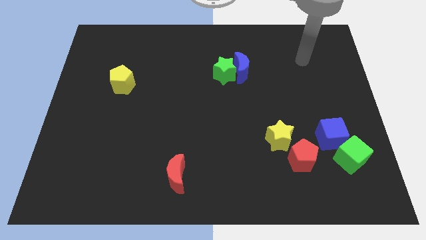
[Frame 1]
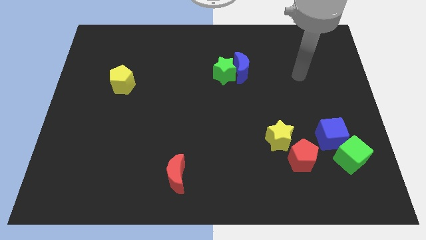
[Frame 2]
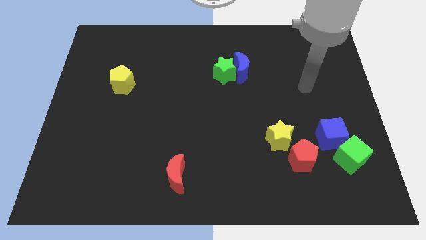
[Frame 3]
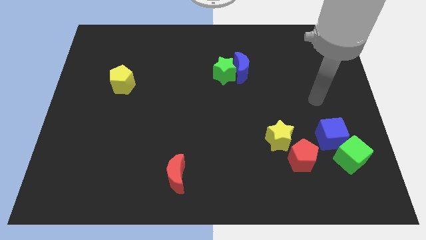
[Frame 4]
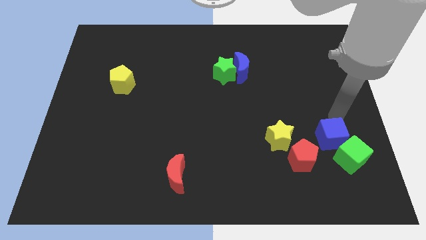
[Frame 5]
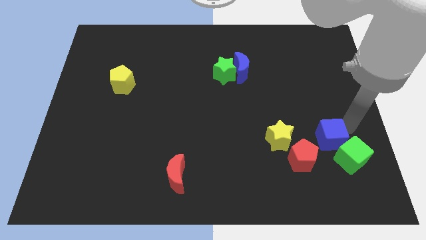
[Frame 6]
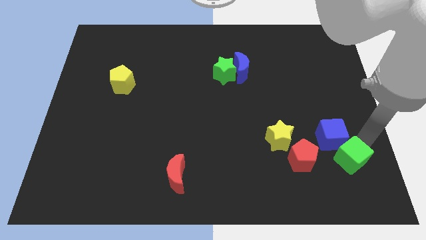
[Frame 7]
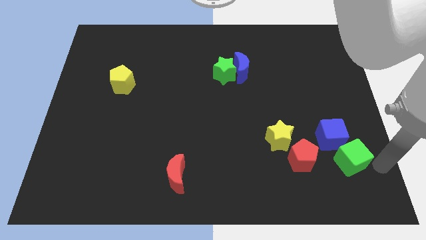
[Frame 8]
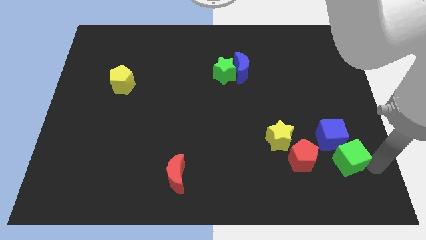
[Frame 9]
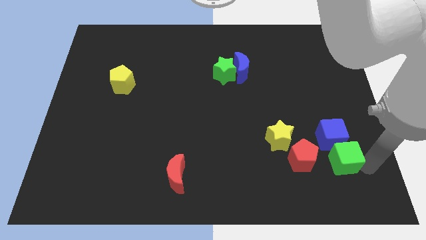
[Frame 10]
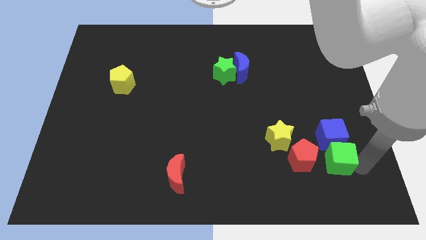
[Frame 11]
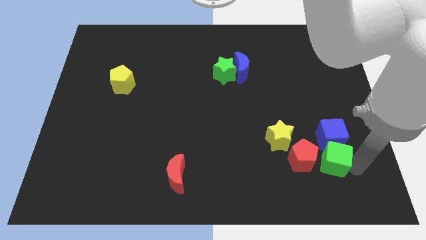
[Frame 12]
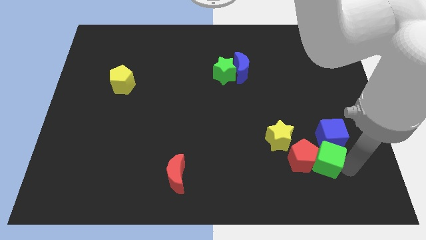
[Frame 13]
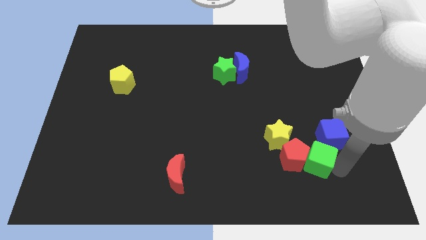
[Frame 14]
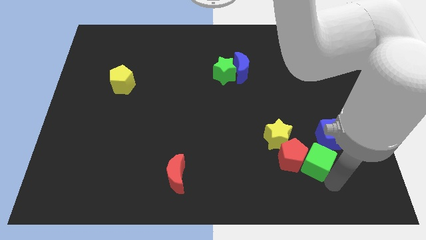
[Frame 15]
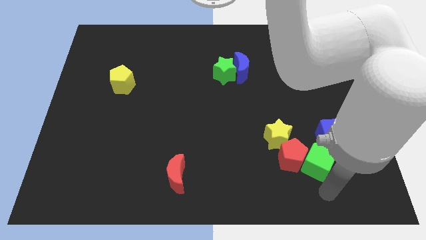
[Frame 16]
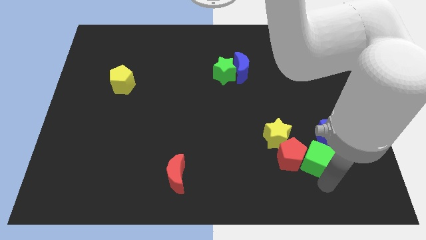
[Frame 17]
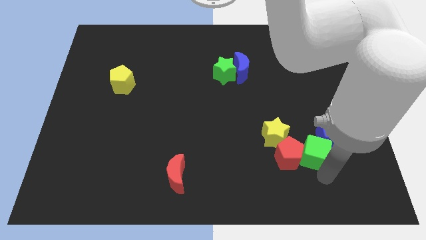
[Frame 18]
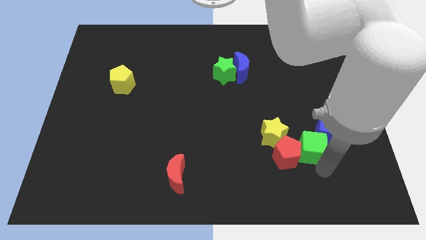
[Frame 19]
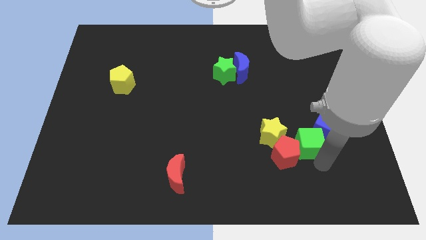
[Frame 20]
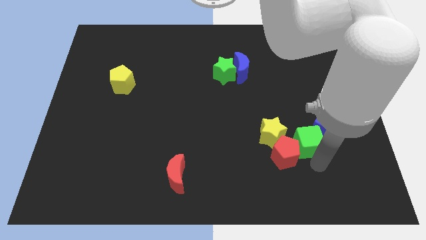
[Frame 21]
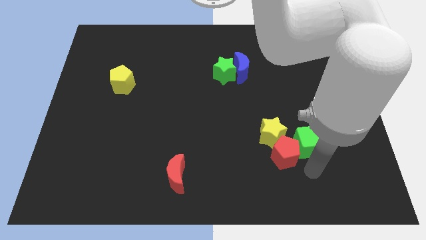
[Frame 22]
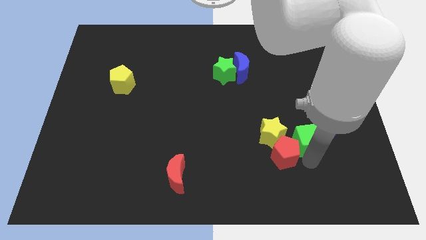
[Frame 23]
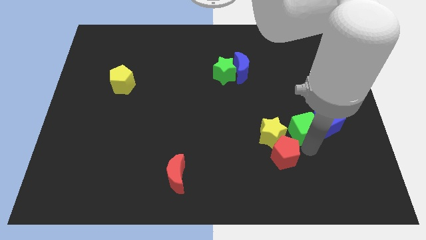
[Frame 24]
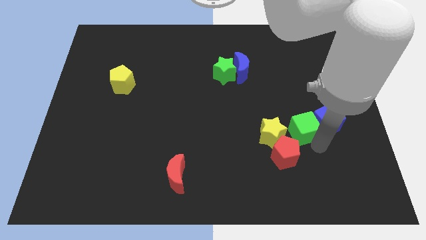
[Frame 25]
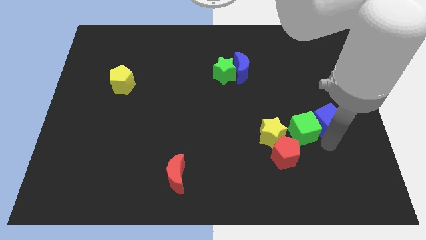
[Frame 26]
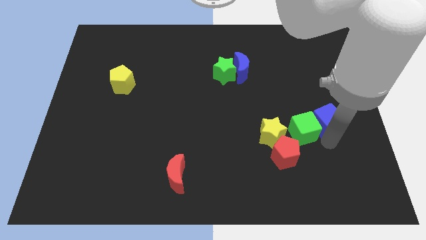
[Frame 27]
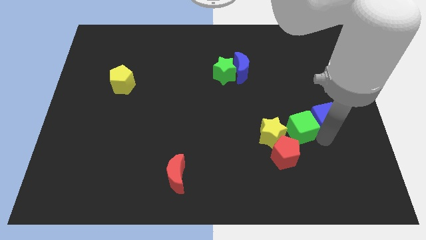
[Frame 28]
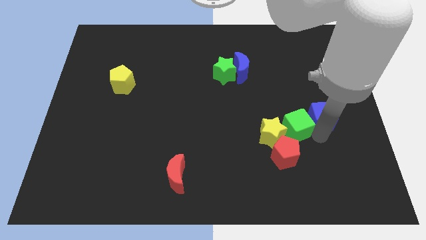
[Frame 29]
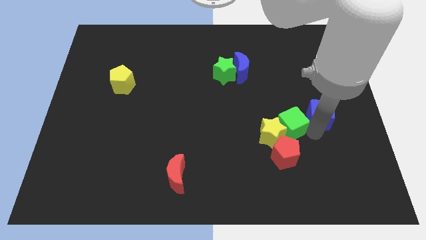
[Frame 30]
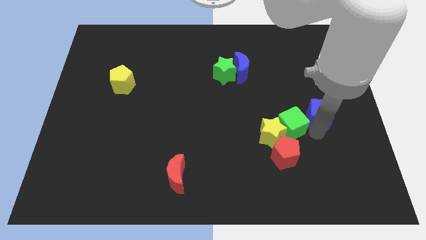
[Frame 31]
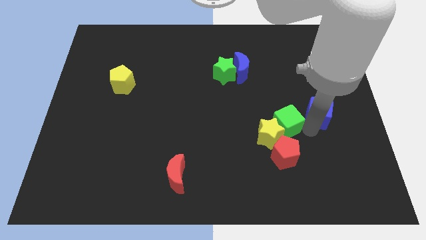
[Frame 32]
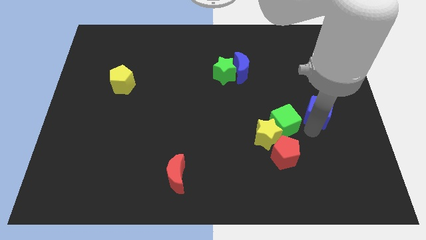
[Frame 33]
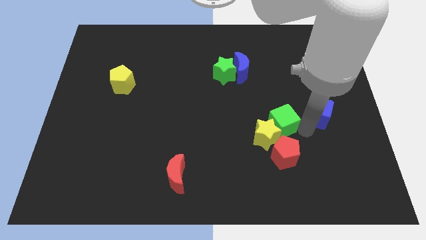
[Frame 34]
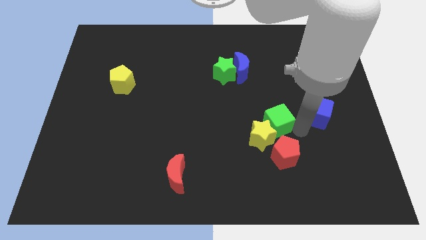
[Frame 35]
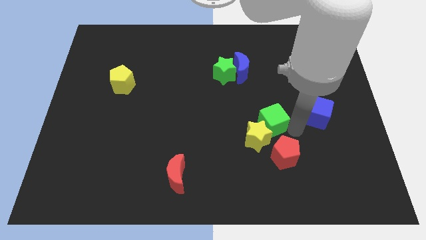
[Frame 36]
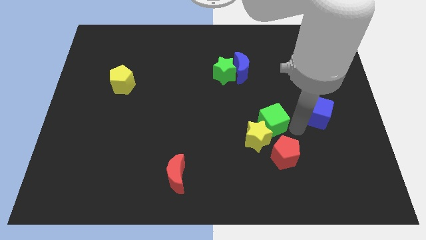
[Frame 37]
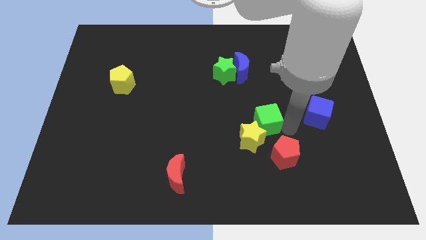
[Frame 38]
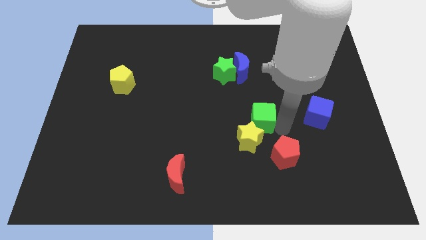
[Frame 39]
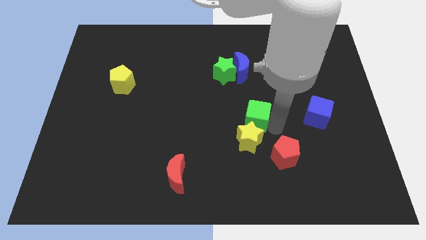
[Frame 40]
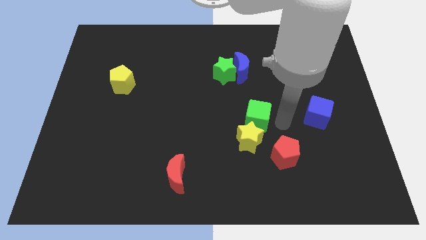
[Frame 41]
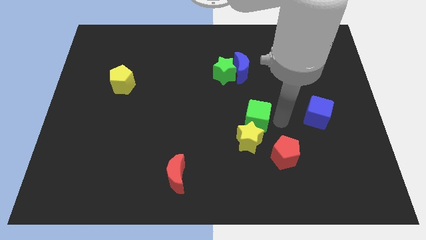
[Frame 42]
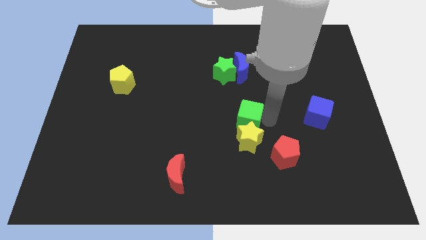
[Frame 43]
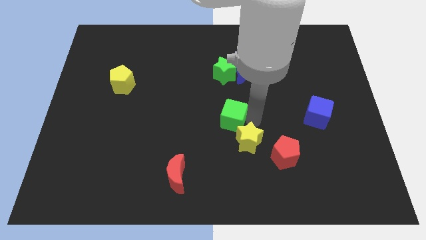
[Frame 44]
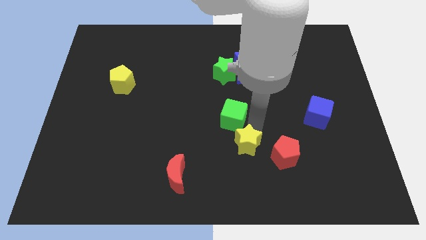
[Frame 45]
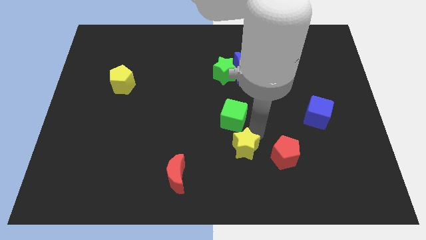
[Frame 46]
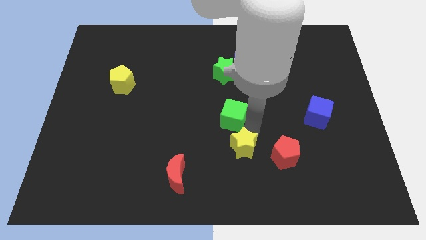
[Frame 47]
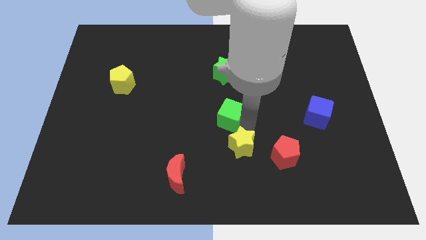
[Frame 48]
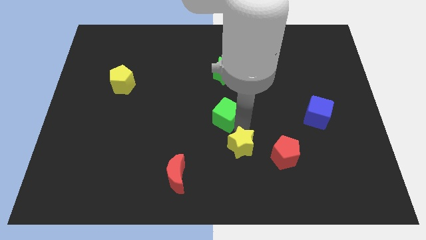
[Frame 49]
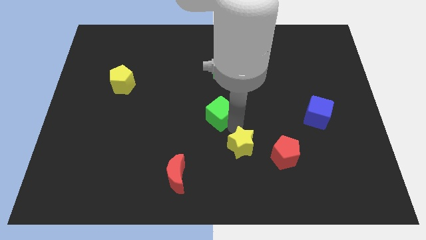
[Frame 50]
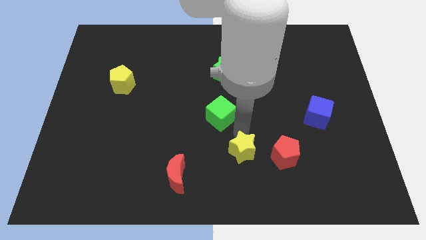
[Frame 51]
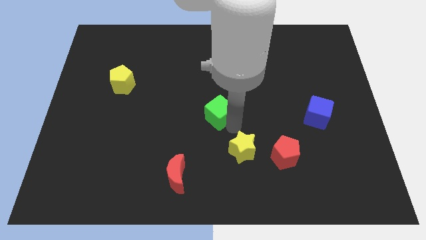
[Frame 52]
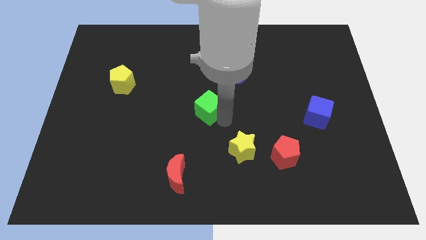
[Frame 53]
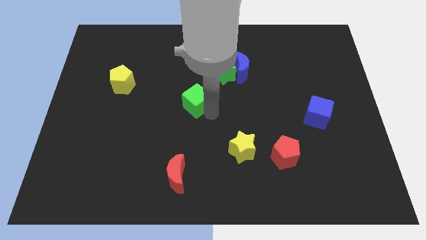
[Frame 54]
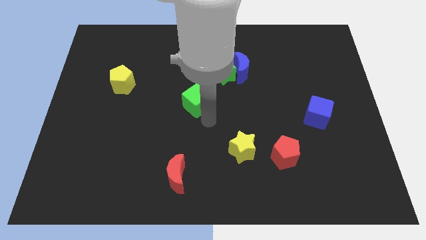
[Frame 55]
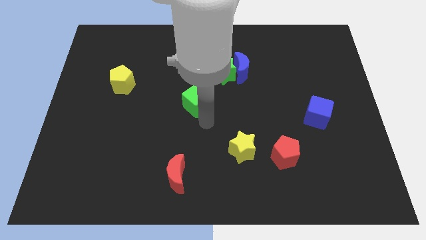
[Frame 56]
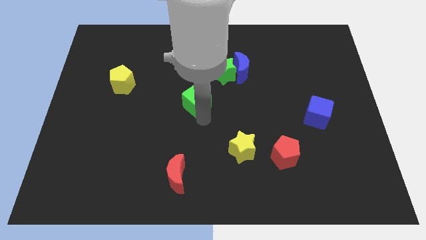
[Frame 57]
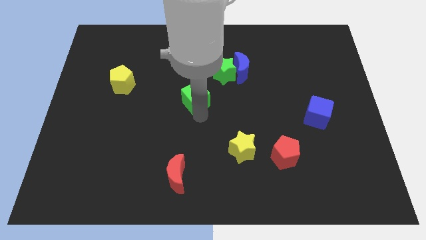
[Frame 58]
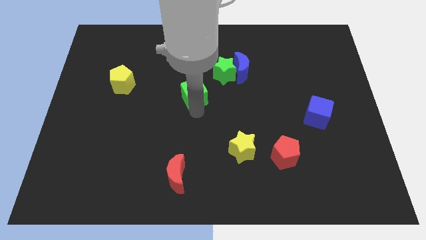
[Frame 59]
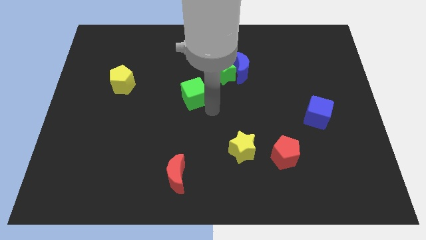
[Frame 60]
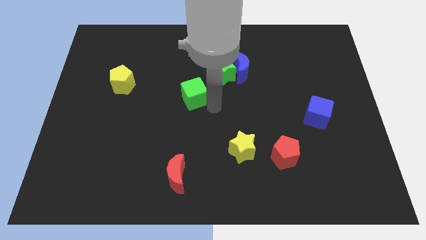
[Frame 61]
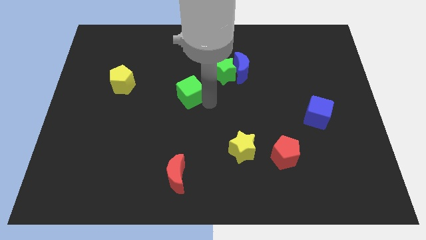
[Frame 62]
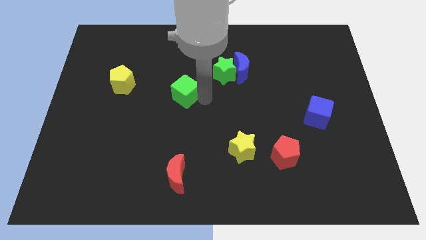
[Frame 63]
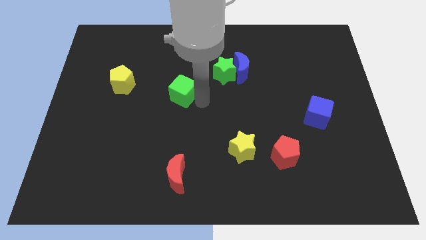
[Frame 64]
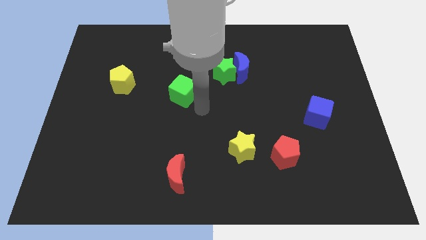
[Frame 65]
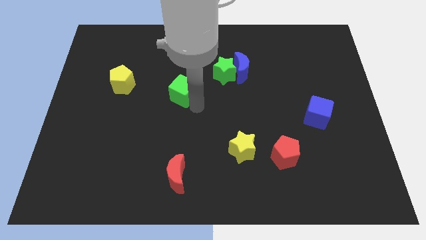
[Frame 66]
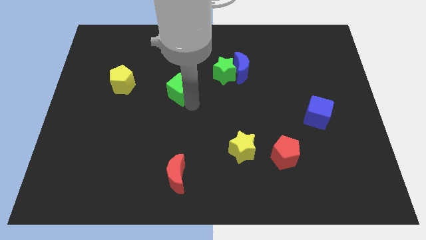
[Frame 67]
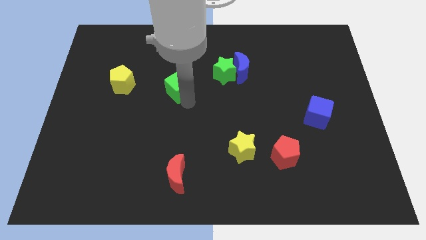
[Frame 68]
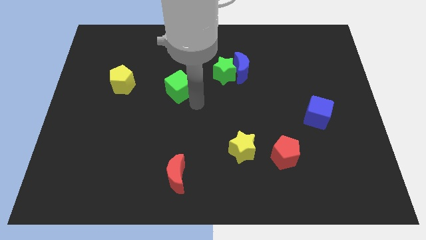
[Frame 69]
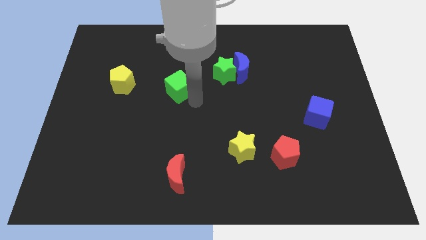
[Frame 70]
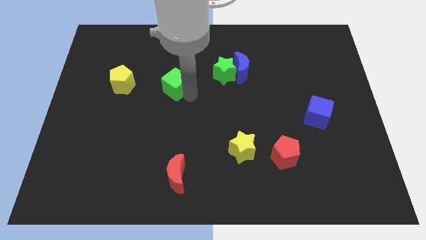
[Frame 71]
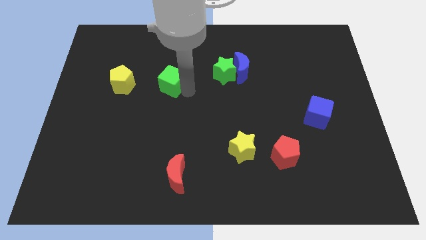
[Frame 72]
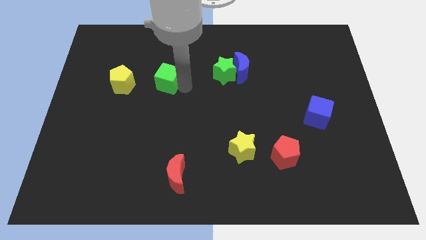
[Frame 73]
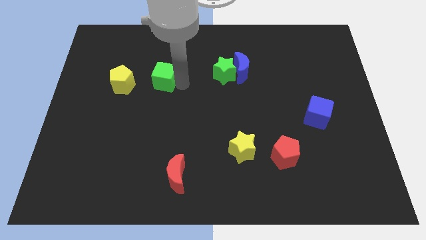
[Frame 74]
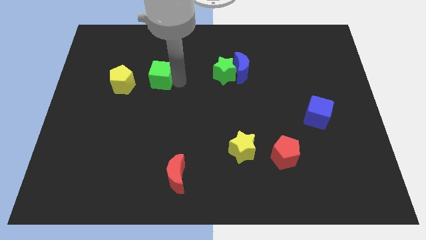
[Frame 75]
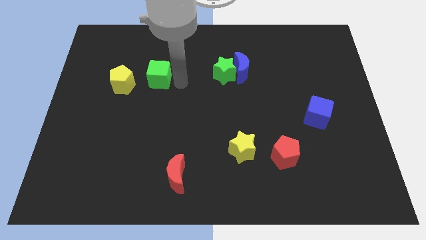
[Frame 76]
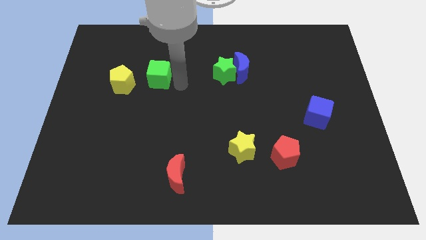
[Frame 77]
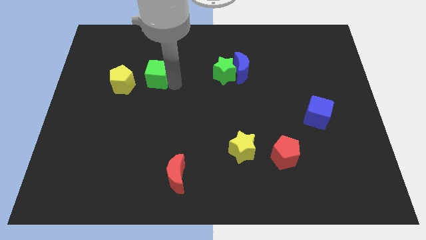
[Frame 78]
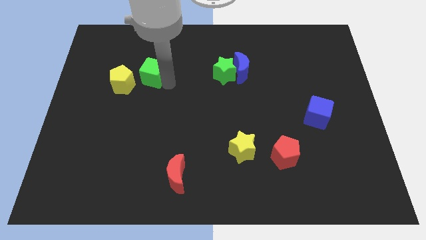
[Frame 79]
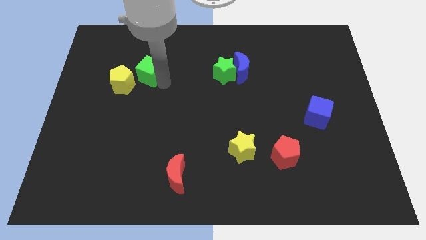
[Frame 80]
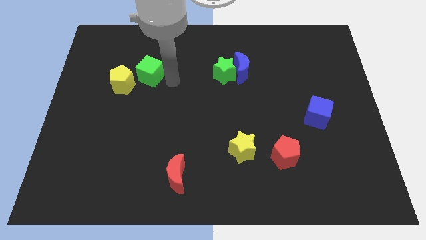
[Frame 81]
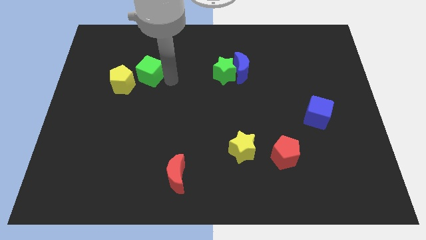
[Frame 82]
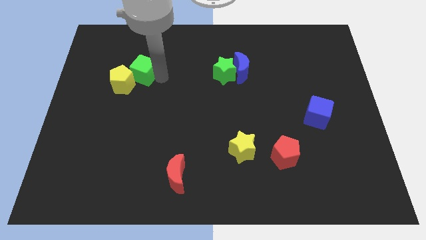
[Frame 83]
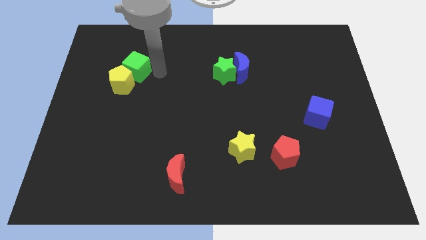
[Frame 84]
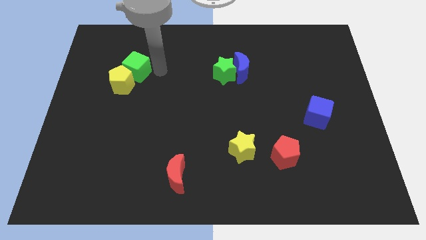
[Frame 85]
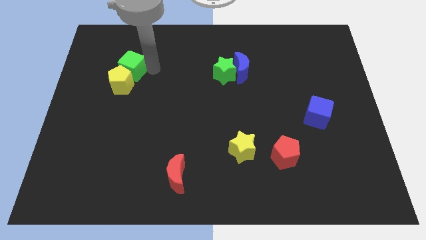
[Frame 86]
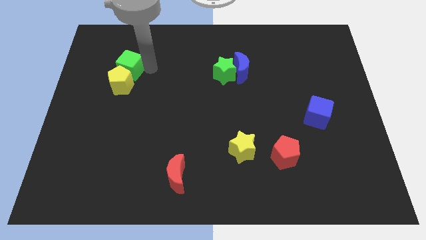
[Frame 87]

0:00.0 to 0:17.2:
push the green cube to the top left side of the yellow pentagon
